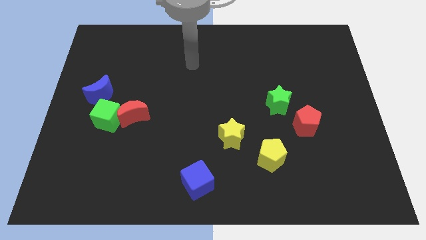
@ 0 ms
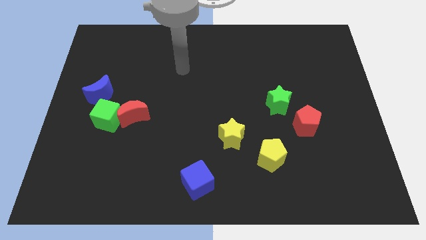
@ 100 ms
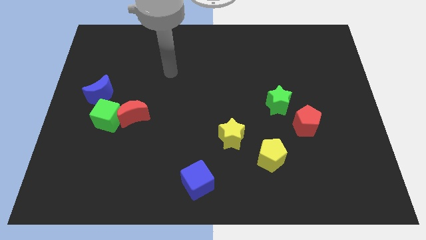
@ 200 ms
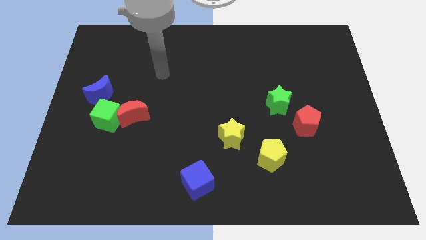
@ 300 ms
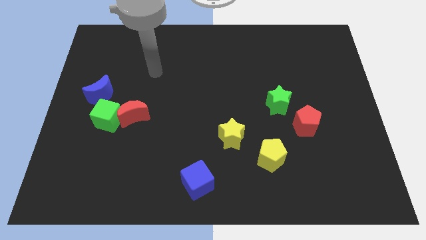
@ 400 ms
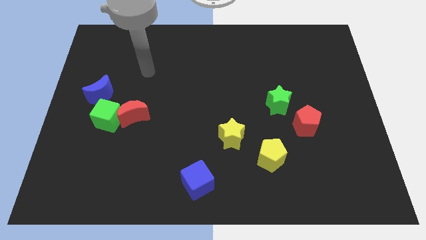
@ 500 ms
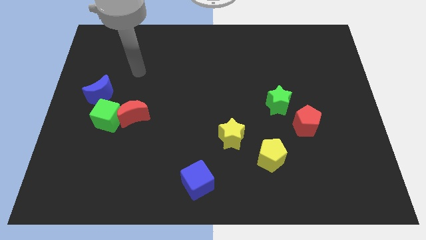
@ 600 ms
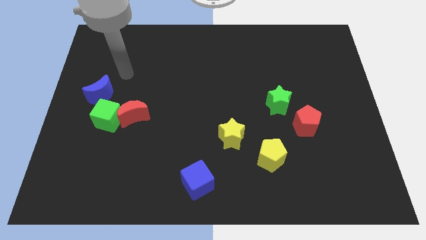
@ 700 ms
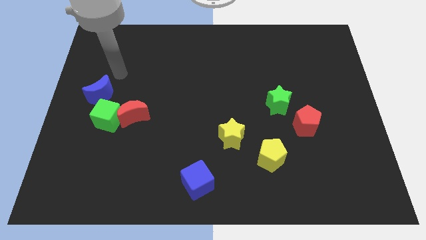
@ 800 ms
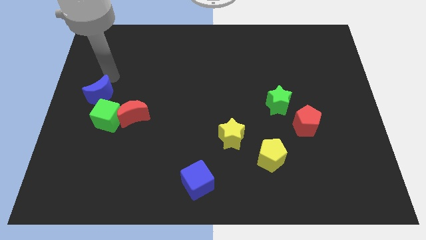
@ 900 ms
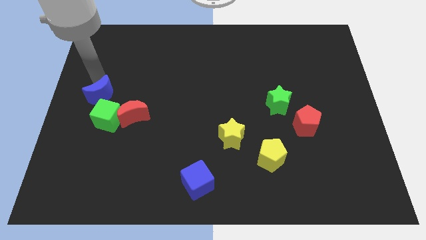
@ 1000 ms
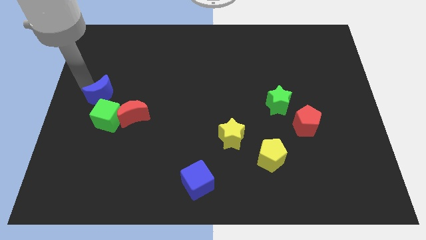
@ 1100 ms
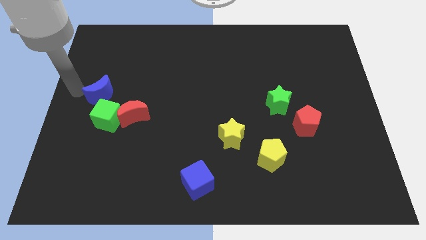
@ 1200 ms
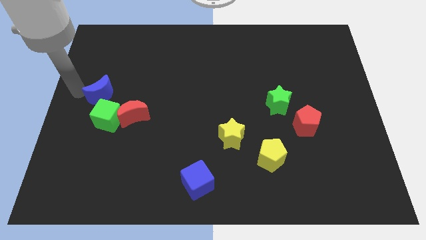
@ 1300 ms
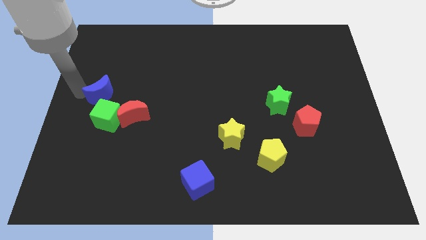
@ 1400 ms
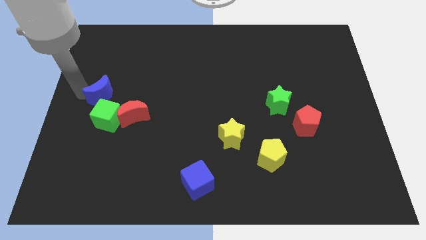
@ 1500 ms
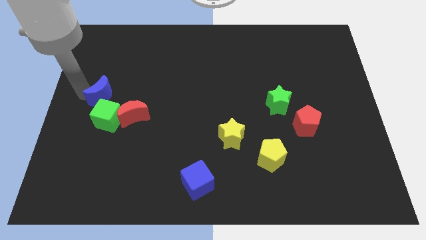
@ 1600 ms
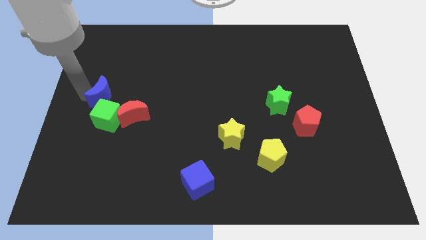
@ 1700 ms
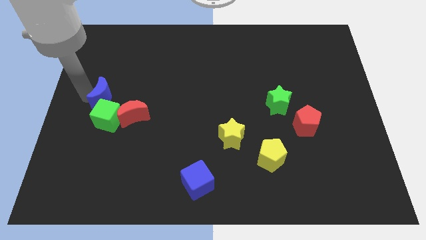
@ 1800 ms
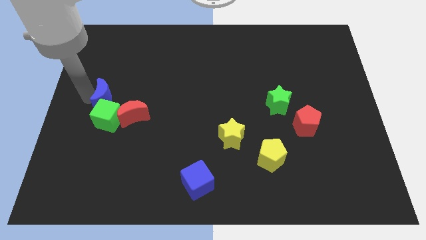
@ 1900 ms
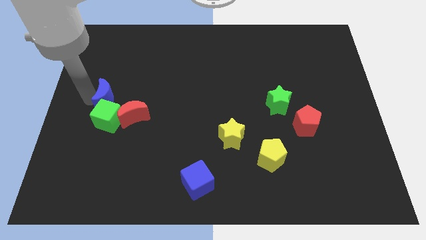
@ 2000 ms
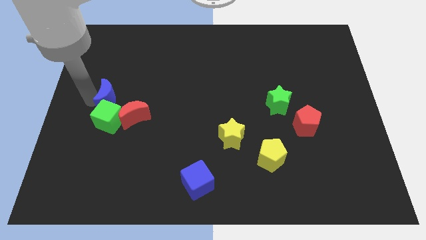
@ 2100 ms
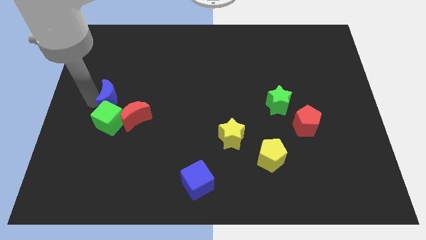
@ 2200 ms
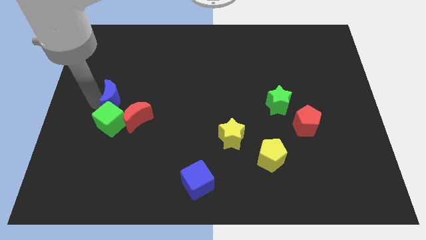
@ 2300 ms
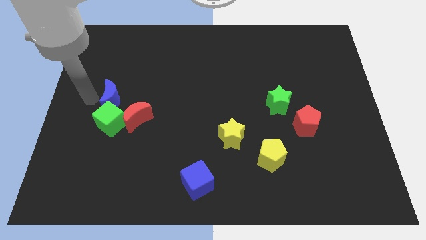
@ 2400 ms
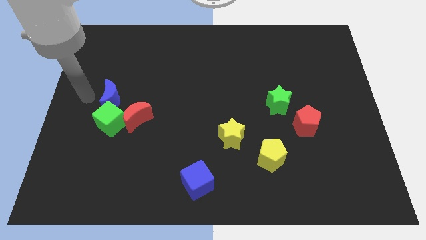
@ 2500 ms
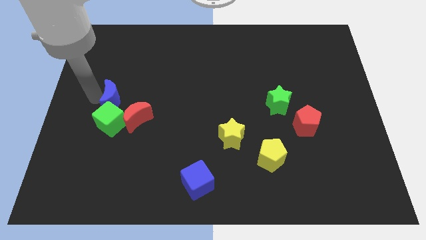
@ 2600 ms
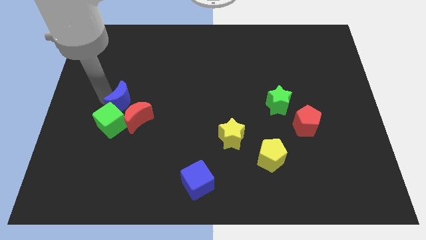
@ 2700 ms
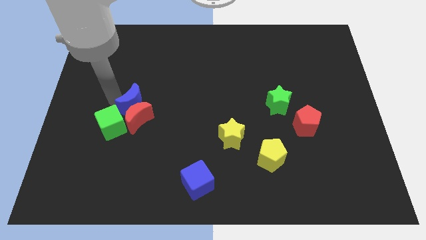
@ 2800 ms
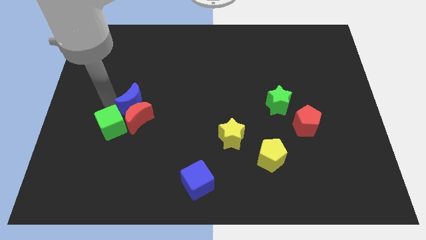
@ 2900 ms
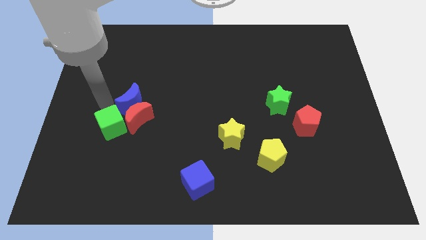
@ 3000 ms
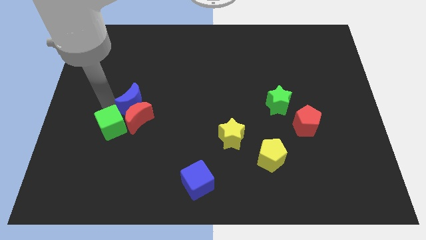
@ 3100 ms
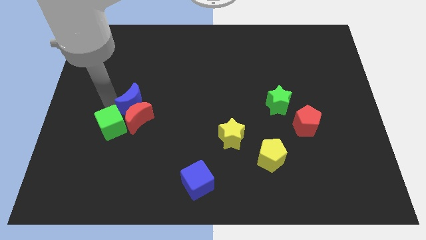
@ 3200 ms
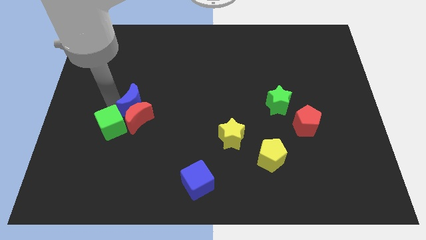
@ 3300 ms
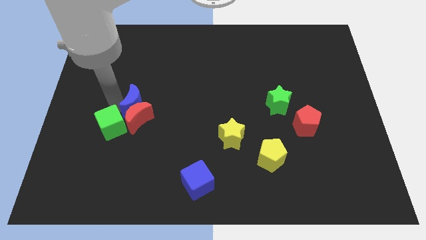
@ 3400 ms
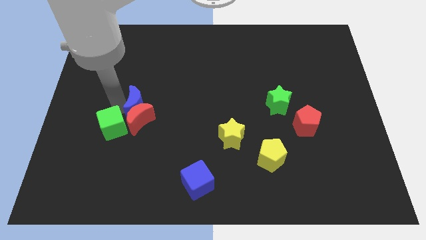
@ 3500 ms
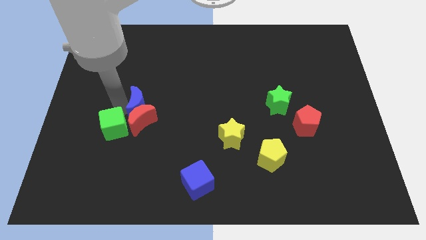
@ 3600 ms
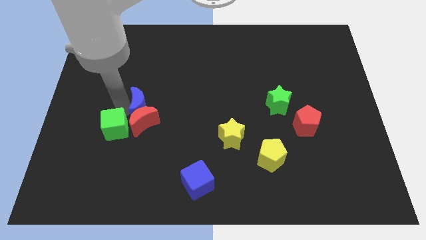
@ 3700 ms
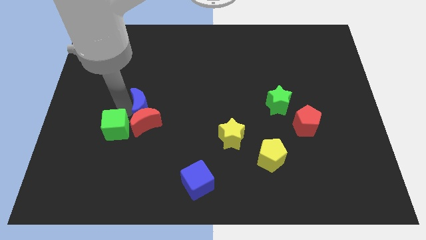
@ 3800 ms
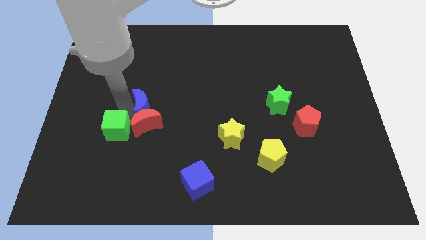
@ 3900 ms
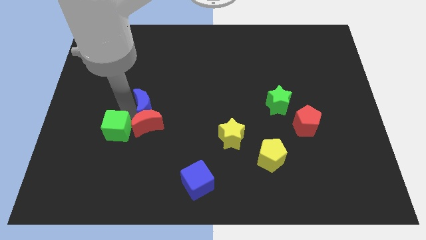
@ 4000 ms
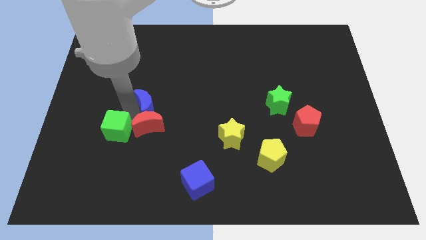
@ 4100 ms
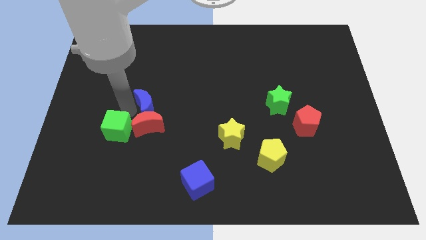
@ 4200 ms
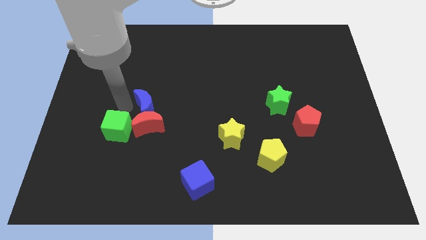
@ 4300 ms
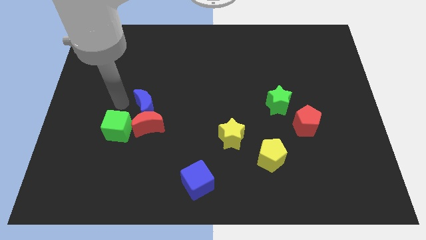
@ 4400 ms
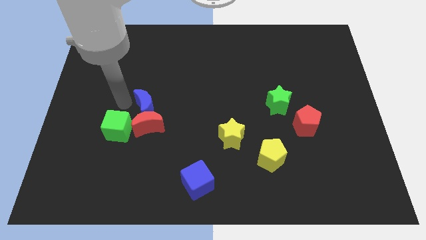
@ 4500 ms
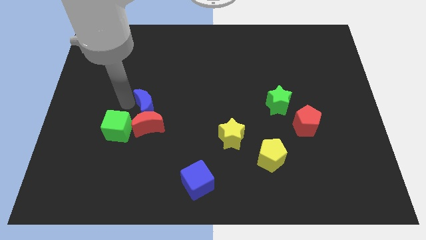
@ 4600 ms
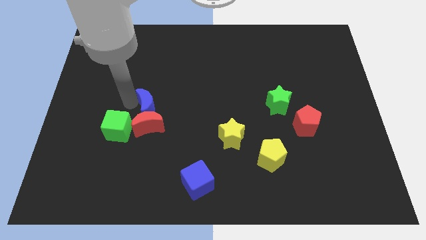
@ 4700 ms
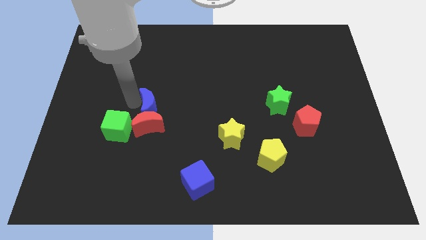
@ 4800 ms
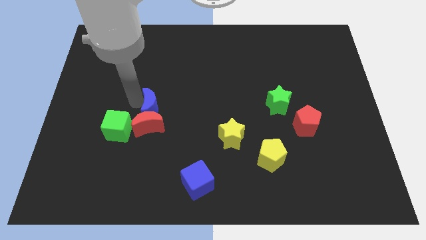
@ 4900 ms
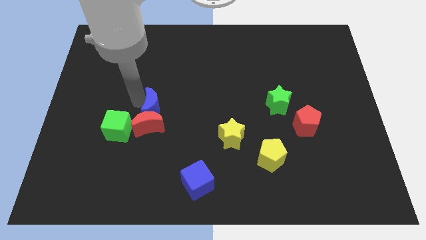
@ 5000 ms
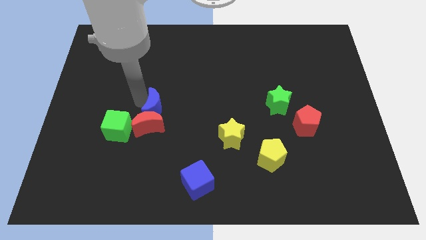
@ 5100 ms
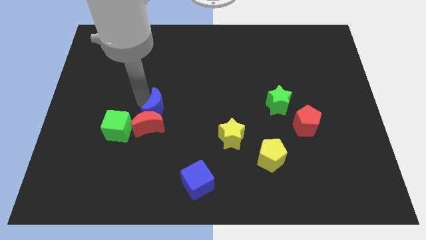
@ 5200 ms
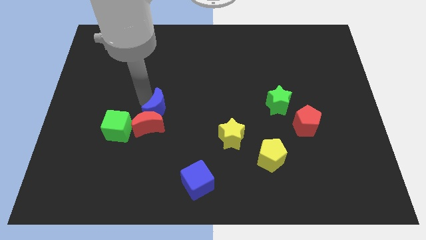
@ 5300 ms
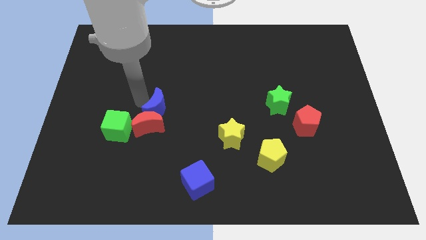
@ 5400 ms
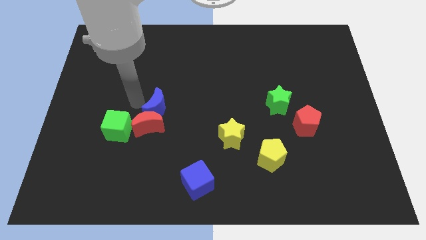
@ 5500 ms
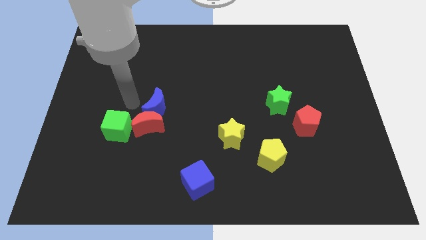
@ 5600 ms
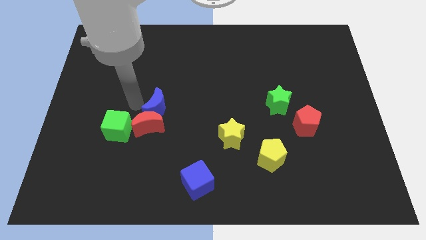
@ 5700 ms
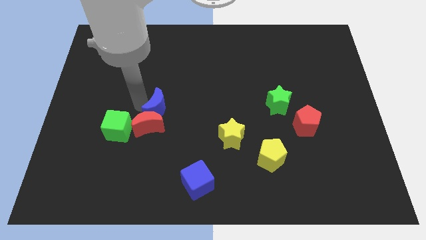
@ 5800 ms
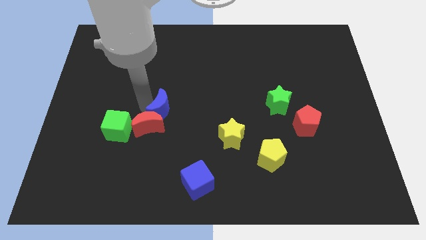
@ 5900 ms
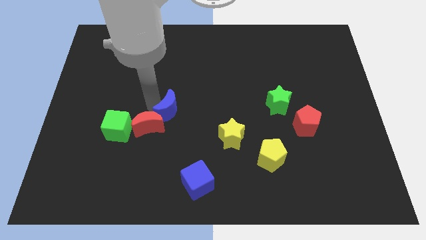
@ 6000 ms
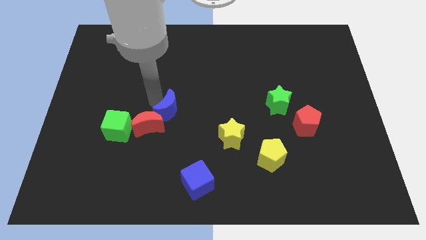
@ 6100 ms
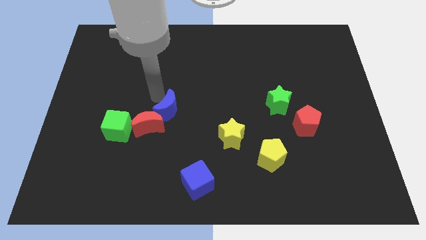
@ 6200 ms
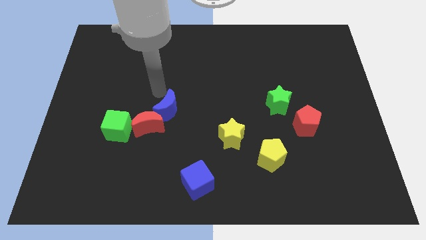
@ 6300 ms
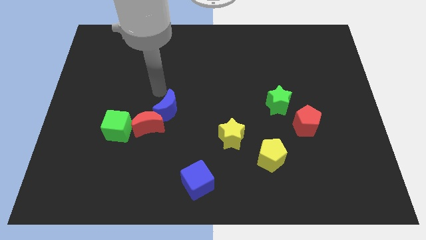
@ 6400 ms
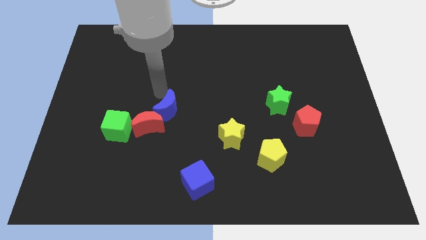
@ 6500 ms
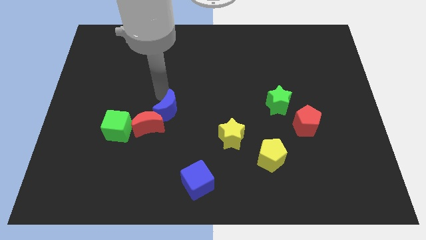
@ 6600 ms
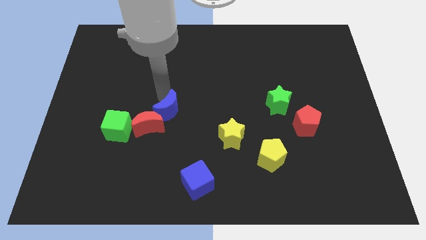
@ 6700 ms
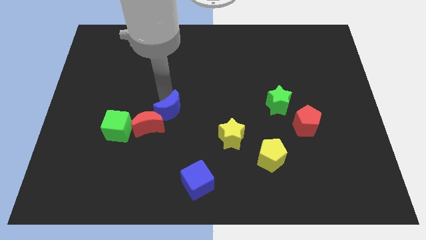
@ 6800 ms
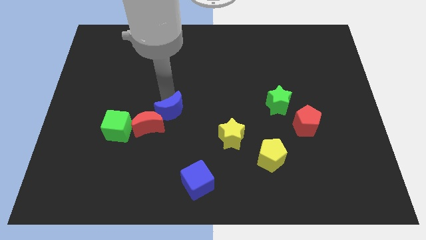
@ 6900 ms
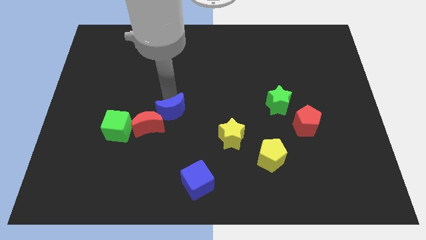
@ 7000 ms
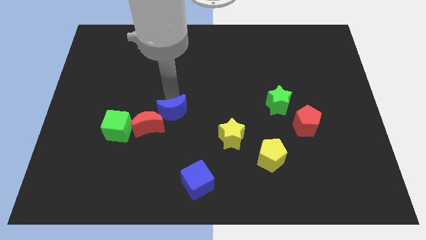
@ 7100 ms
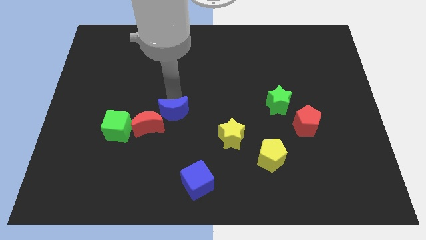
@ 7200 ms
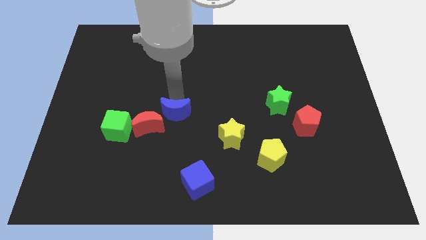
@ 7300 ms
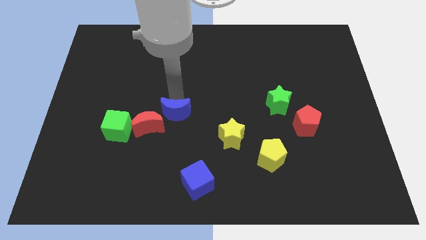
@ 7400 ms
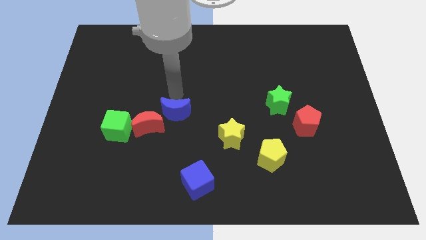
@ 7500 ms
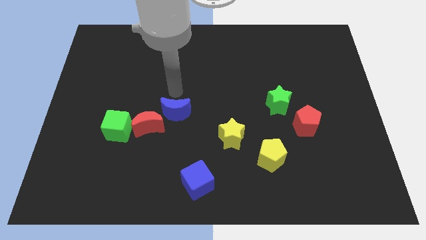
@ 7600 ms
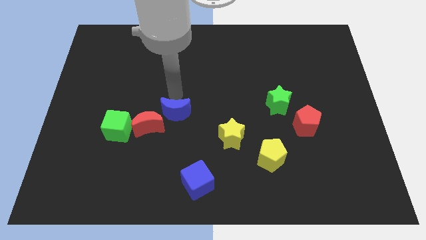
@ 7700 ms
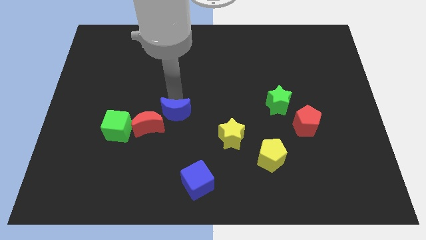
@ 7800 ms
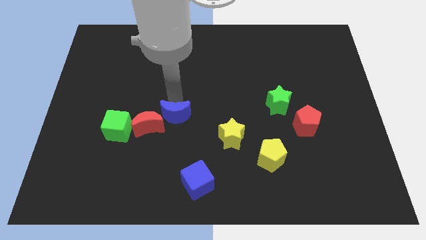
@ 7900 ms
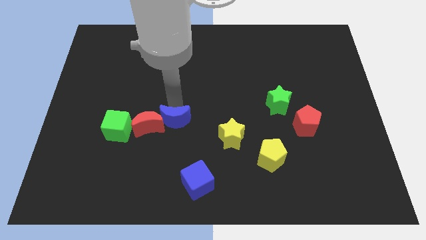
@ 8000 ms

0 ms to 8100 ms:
put the blue moon to the left of the yellow star
